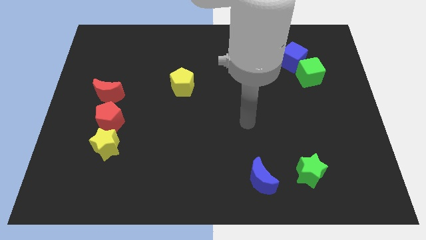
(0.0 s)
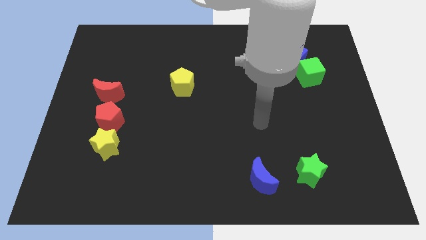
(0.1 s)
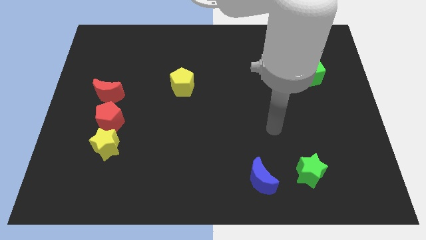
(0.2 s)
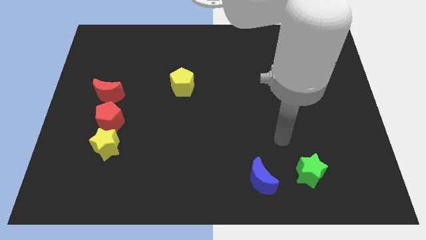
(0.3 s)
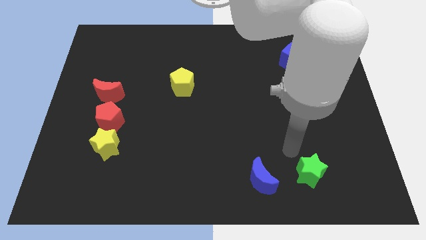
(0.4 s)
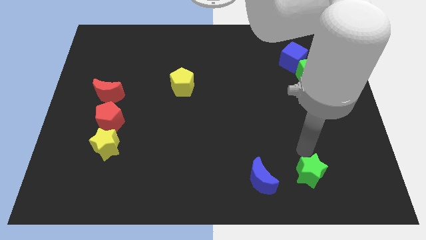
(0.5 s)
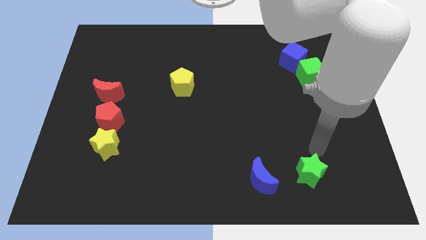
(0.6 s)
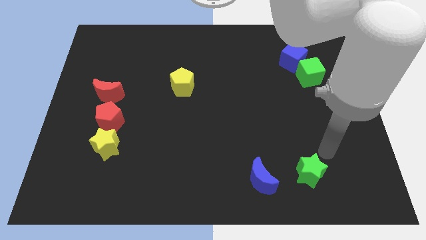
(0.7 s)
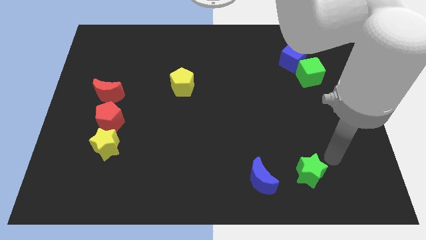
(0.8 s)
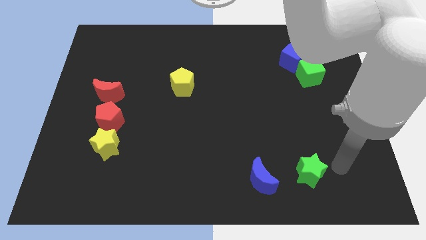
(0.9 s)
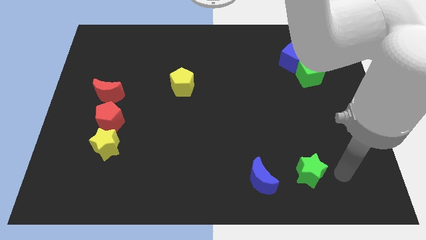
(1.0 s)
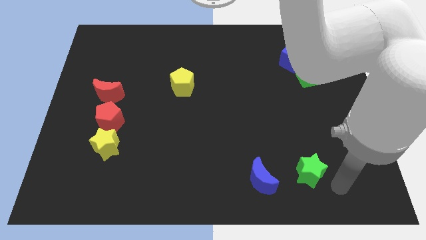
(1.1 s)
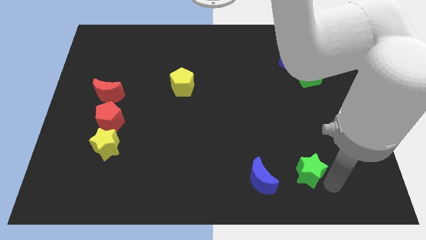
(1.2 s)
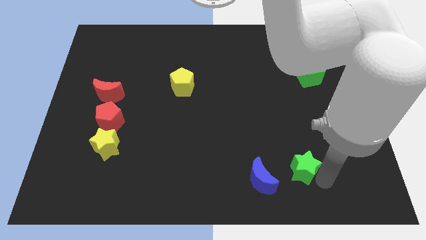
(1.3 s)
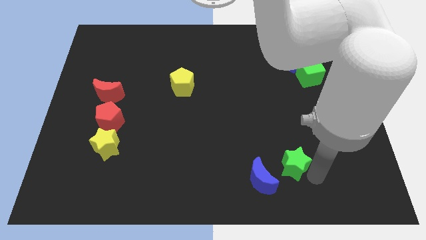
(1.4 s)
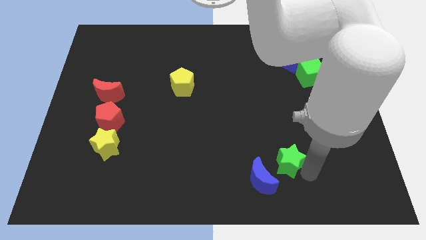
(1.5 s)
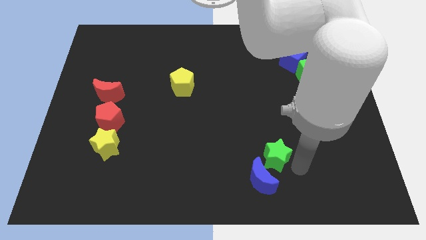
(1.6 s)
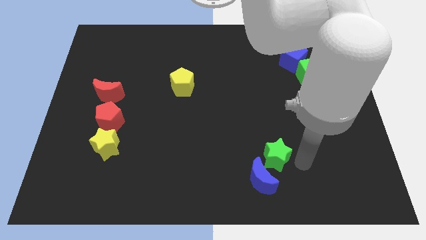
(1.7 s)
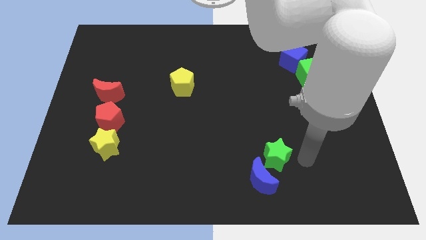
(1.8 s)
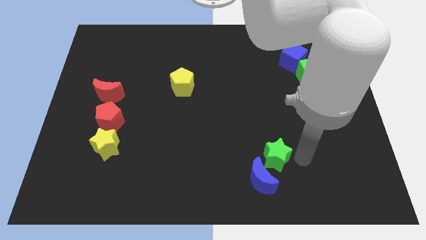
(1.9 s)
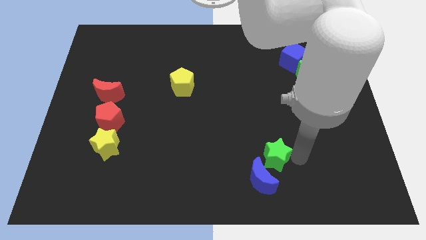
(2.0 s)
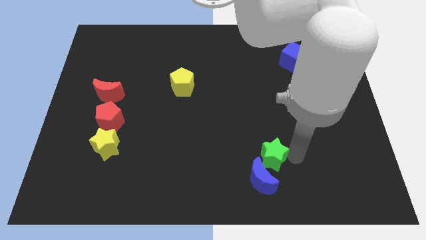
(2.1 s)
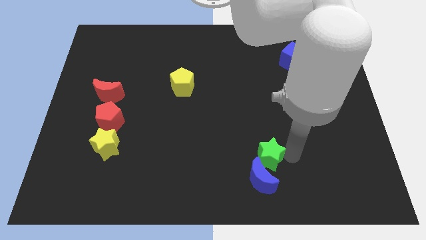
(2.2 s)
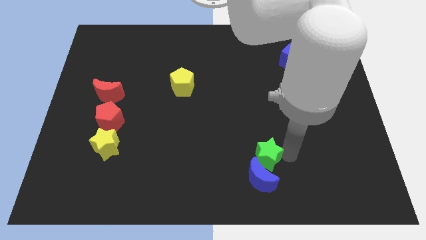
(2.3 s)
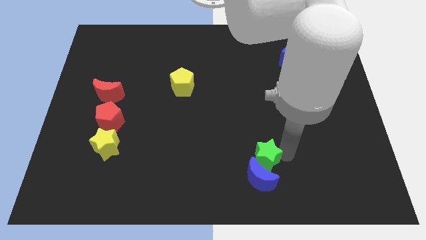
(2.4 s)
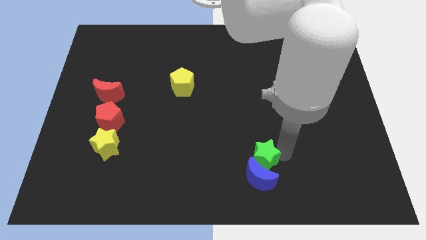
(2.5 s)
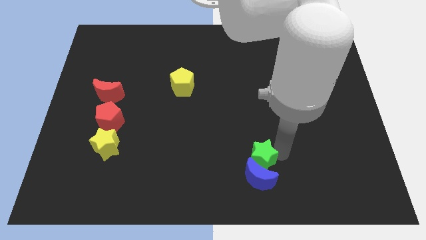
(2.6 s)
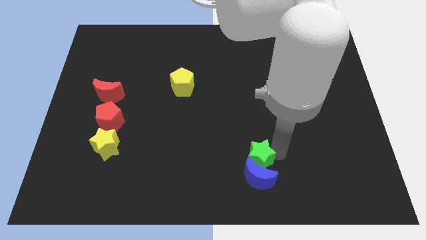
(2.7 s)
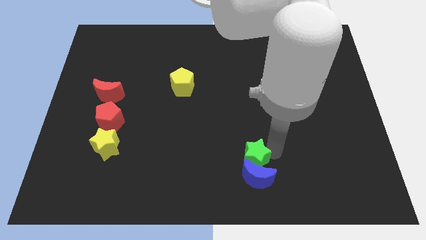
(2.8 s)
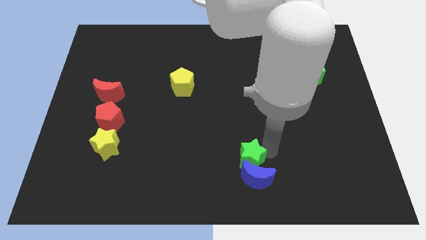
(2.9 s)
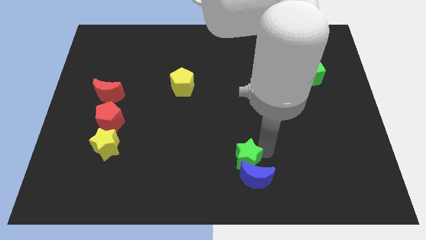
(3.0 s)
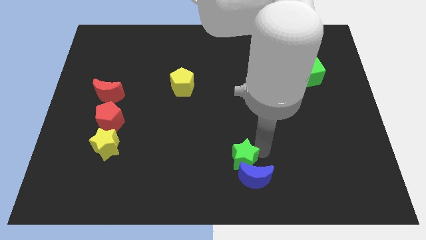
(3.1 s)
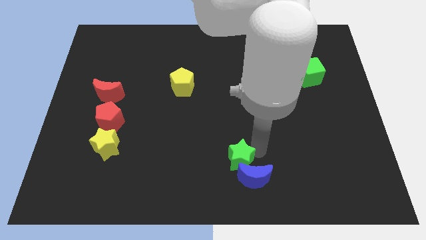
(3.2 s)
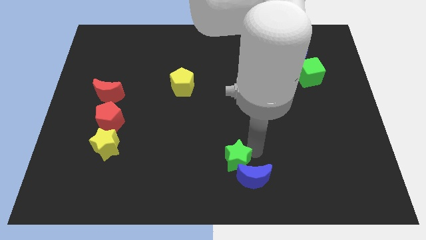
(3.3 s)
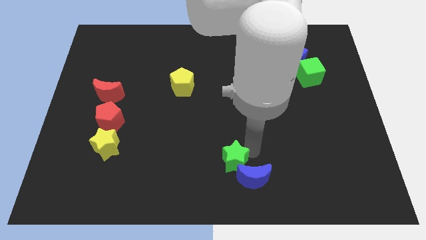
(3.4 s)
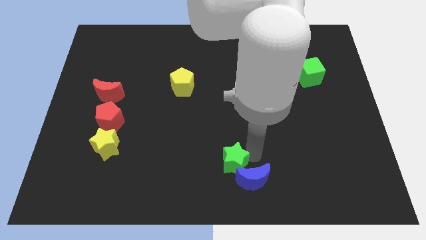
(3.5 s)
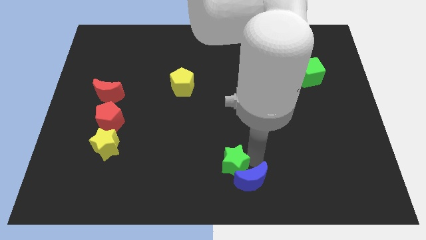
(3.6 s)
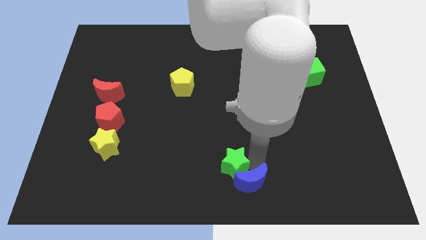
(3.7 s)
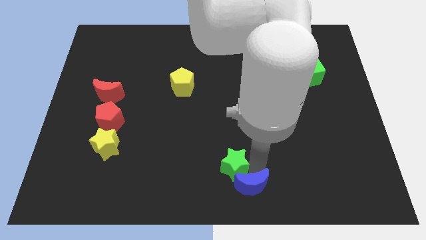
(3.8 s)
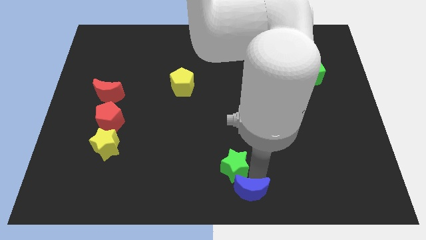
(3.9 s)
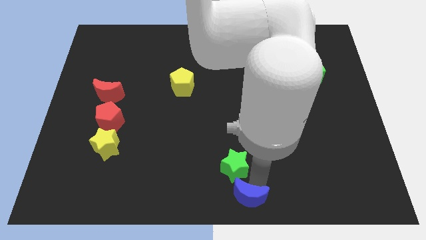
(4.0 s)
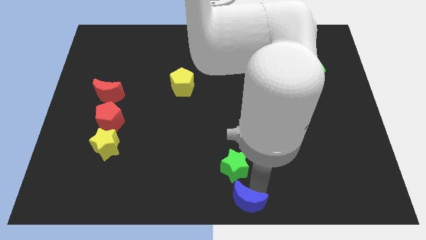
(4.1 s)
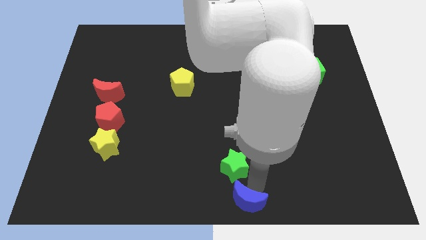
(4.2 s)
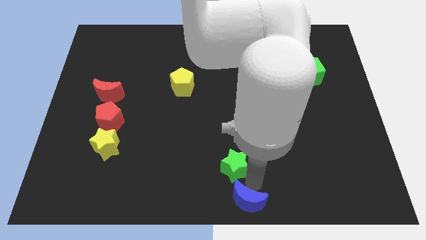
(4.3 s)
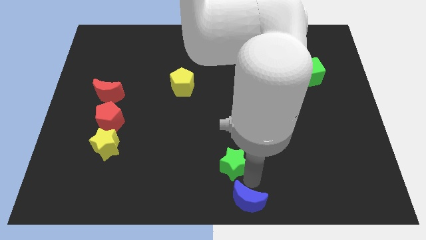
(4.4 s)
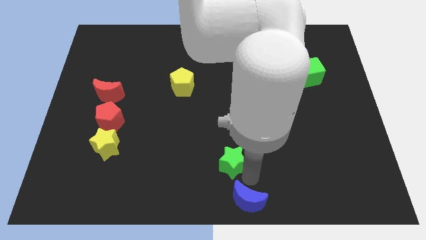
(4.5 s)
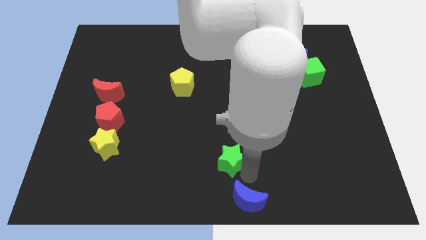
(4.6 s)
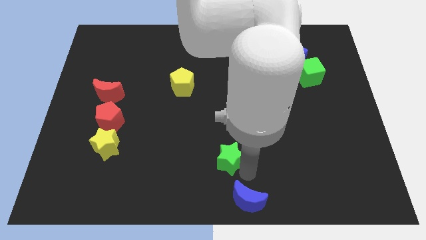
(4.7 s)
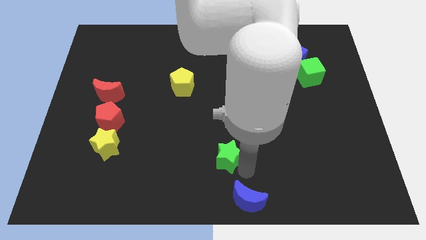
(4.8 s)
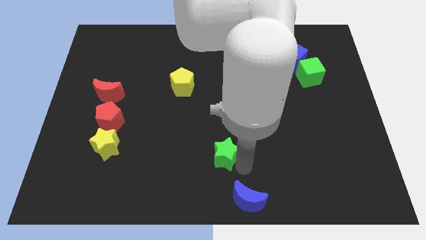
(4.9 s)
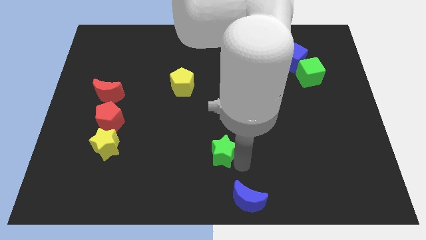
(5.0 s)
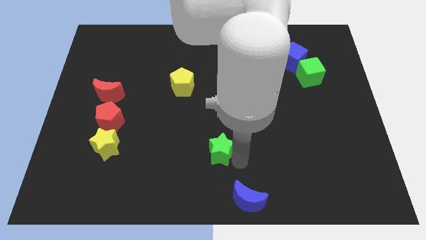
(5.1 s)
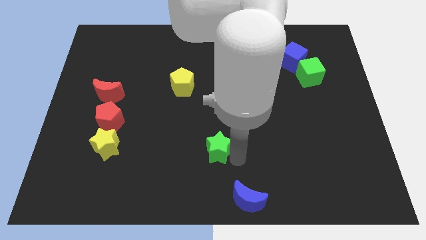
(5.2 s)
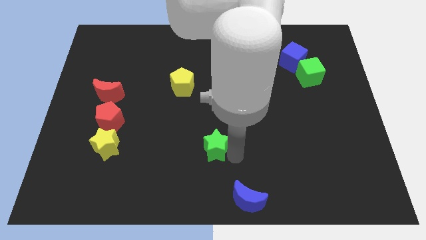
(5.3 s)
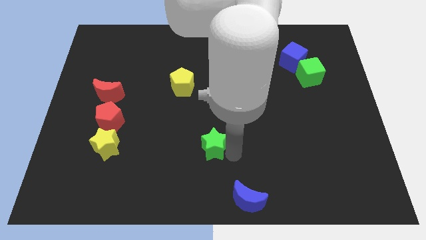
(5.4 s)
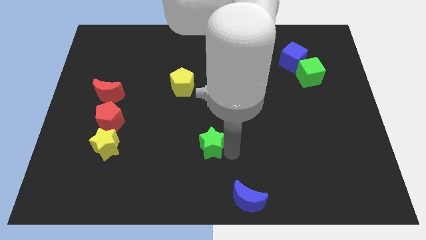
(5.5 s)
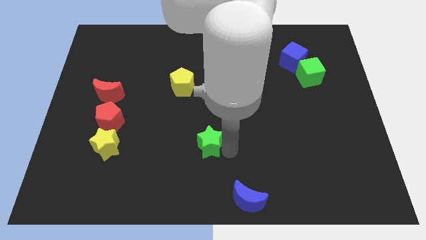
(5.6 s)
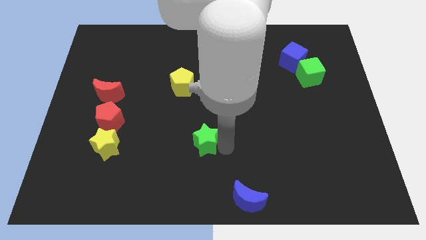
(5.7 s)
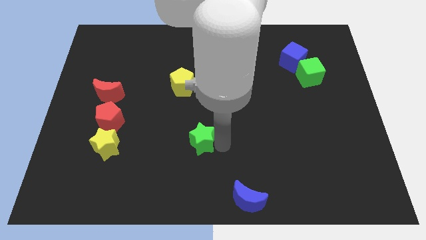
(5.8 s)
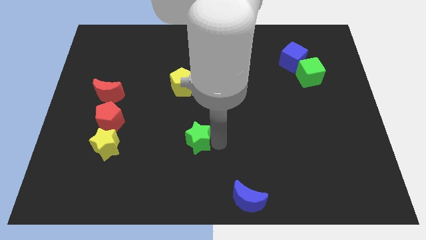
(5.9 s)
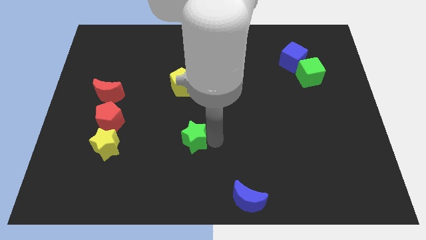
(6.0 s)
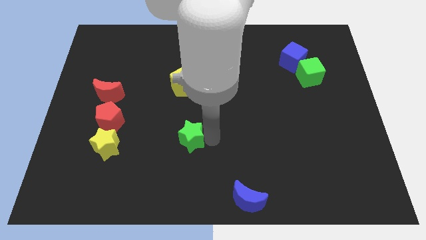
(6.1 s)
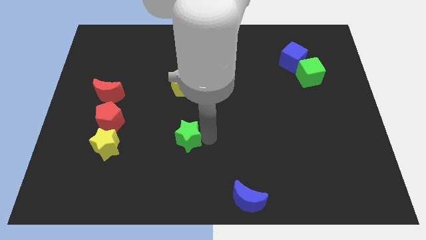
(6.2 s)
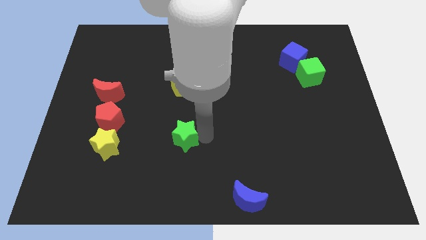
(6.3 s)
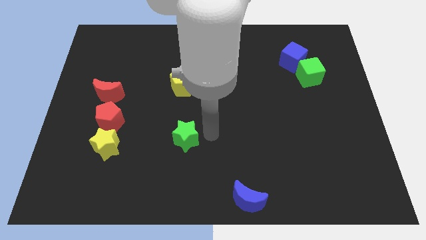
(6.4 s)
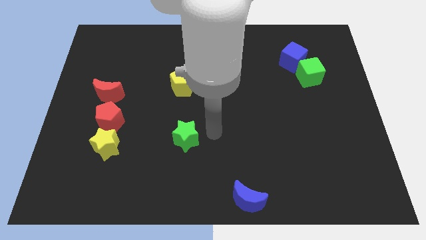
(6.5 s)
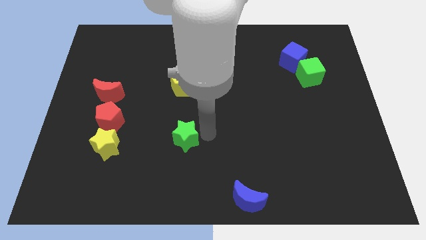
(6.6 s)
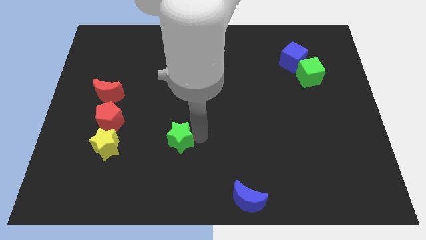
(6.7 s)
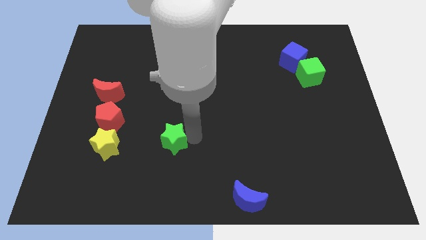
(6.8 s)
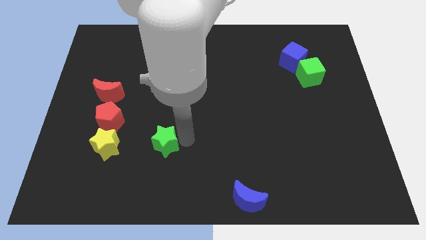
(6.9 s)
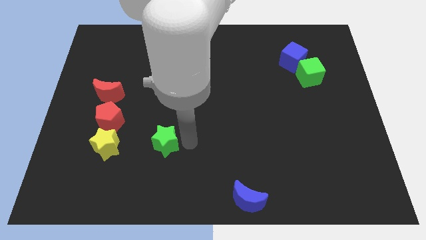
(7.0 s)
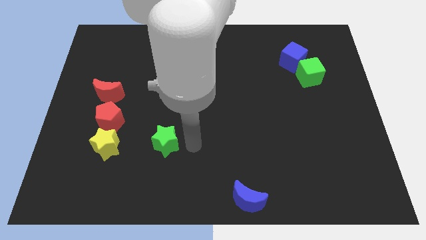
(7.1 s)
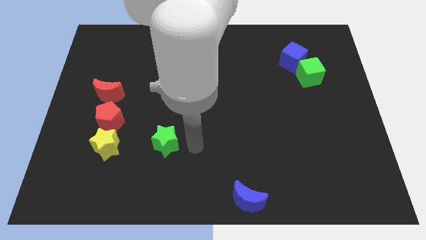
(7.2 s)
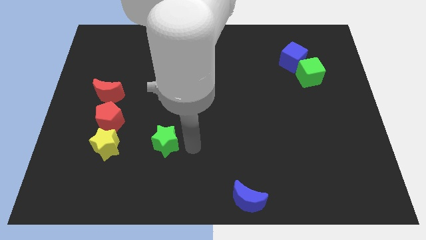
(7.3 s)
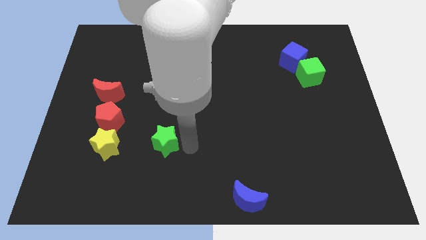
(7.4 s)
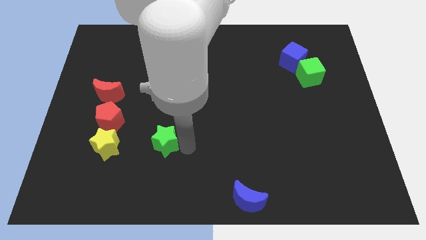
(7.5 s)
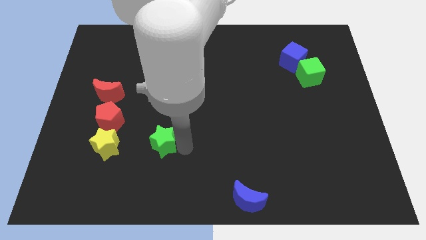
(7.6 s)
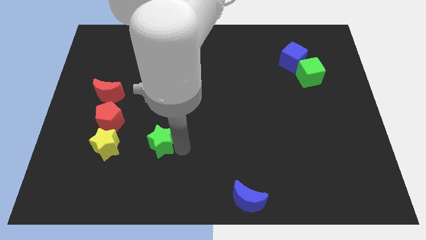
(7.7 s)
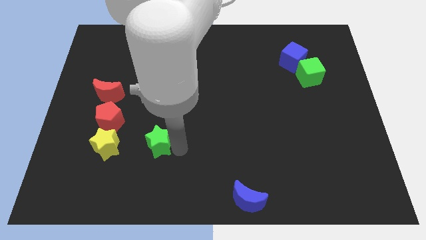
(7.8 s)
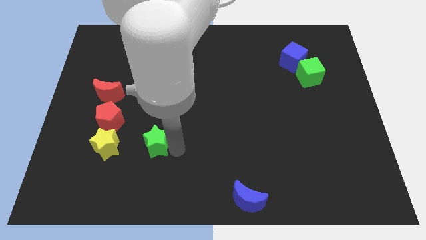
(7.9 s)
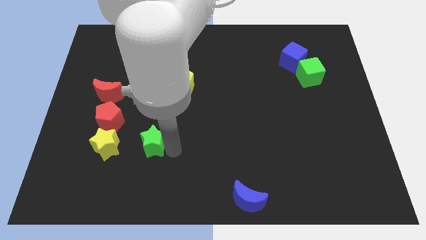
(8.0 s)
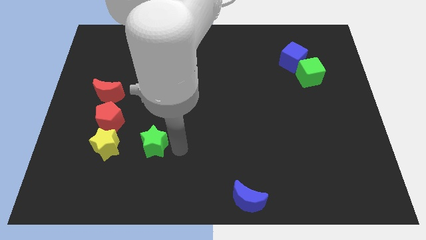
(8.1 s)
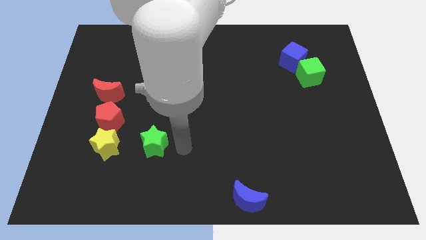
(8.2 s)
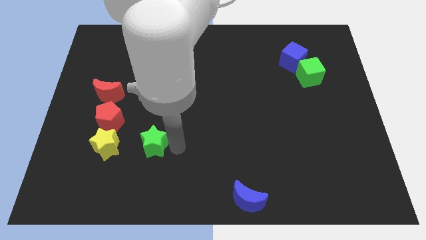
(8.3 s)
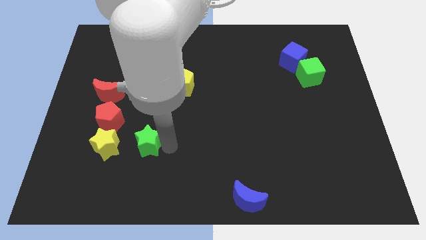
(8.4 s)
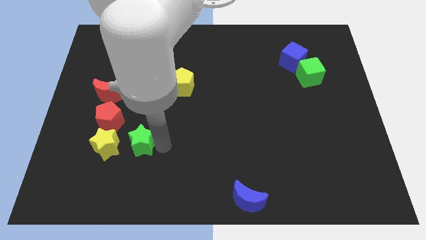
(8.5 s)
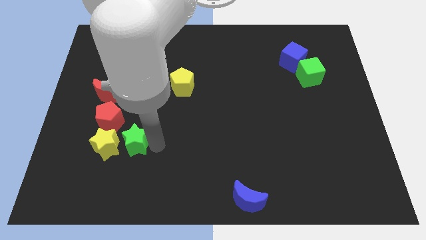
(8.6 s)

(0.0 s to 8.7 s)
move the green star to the yellow star
